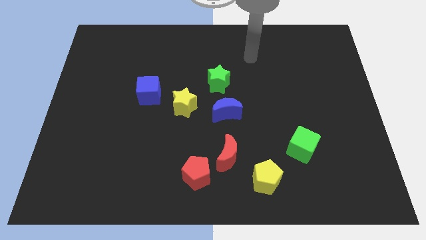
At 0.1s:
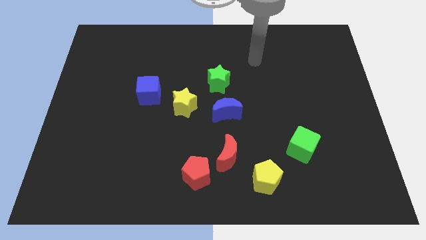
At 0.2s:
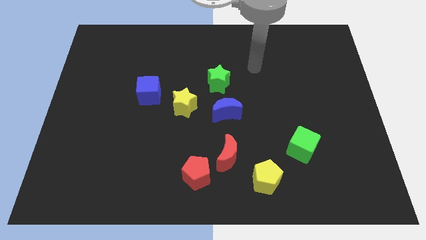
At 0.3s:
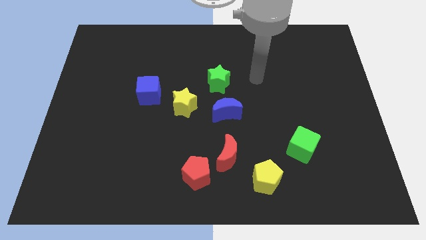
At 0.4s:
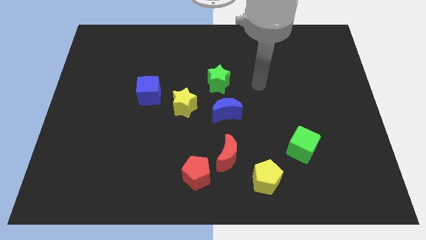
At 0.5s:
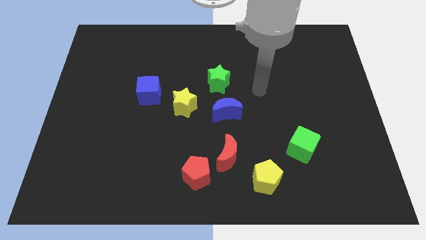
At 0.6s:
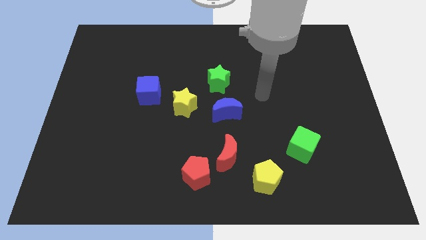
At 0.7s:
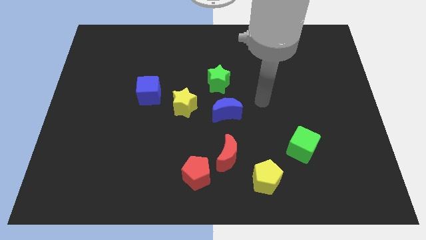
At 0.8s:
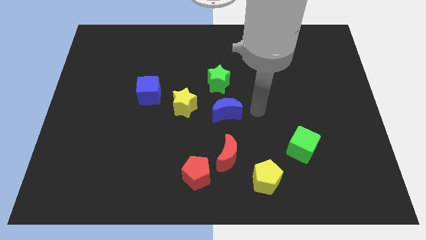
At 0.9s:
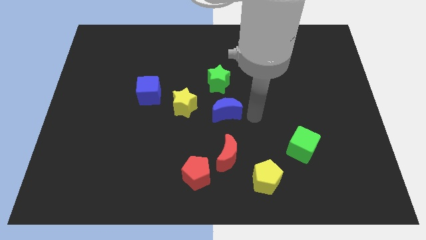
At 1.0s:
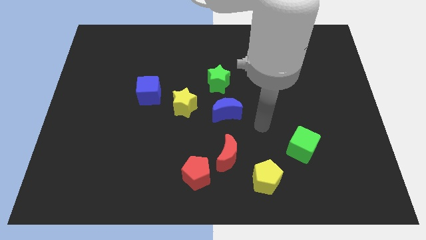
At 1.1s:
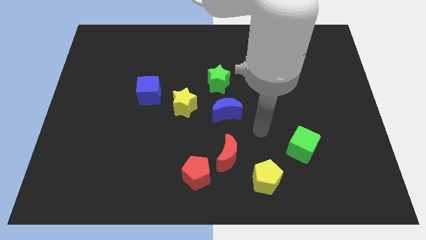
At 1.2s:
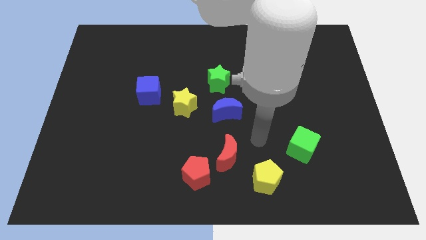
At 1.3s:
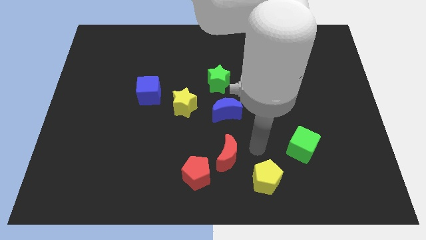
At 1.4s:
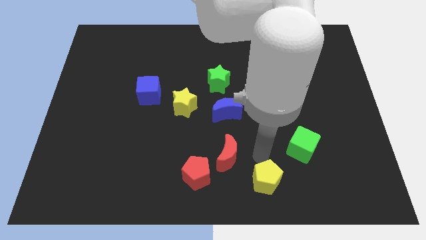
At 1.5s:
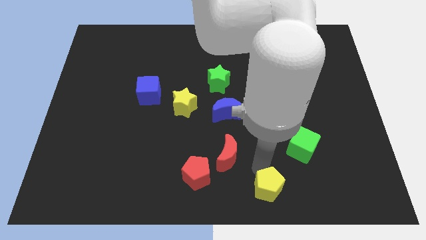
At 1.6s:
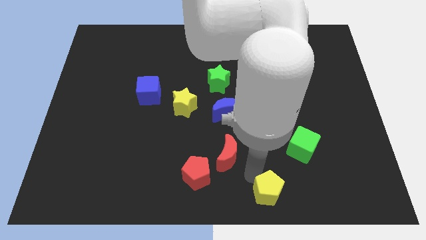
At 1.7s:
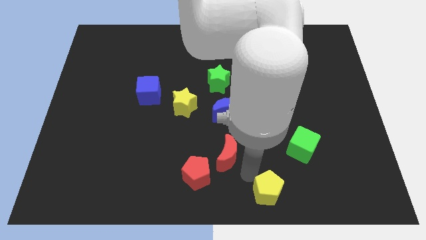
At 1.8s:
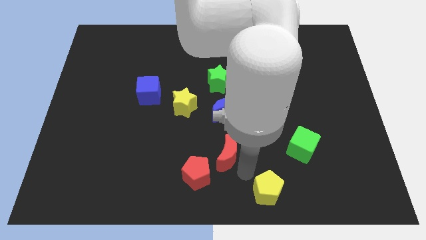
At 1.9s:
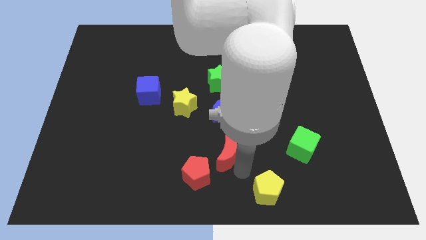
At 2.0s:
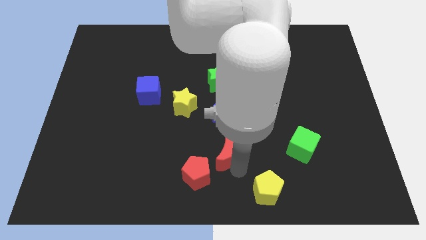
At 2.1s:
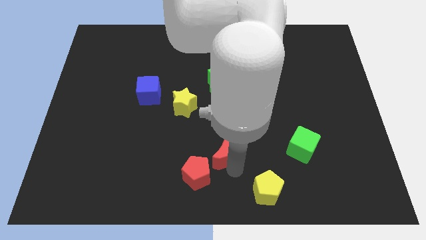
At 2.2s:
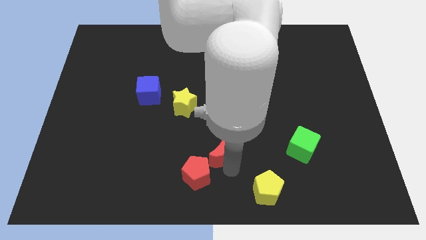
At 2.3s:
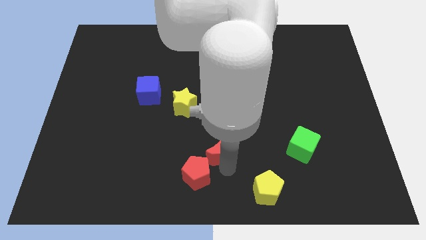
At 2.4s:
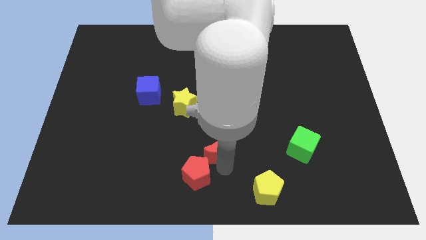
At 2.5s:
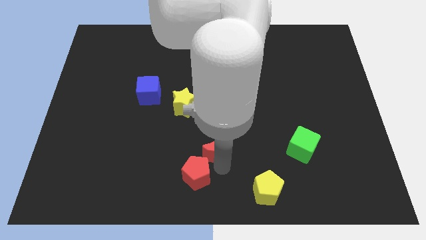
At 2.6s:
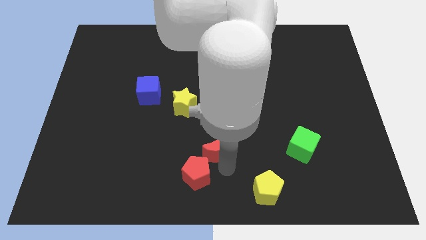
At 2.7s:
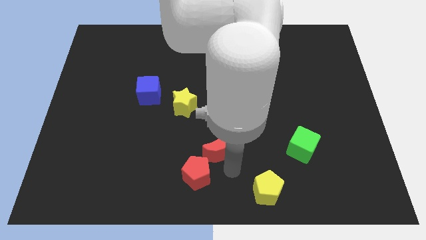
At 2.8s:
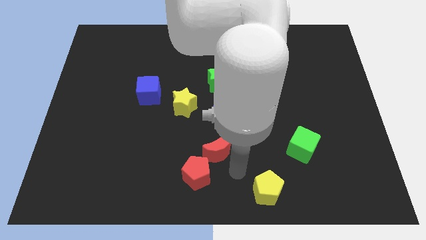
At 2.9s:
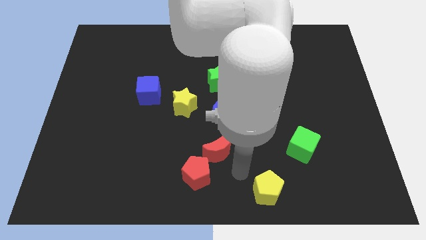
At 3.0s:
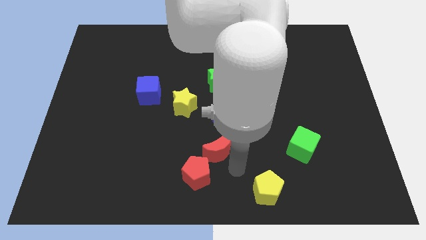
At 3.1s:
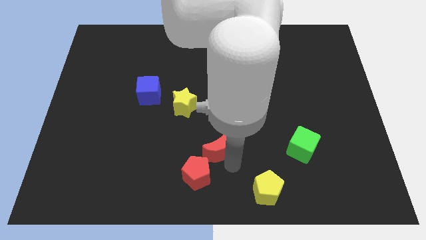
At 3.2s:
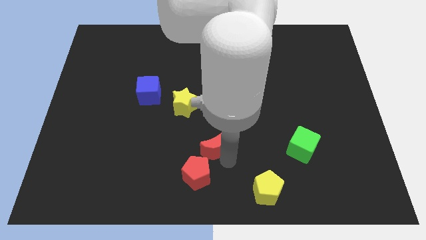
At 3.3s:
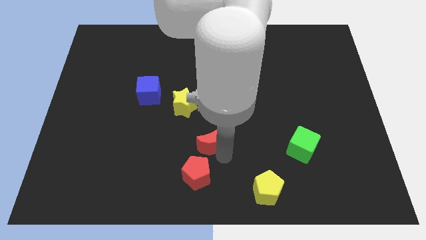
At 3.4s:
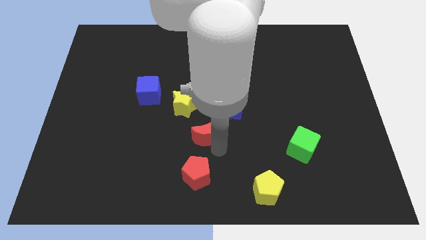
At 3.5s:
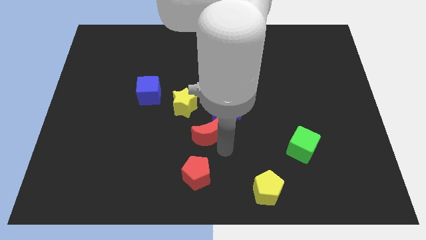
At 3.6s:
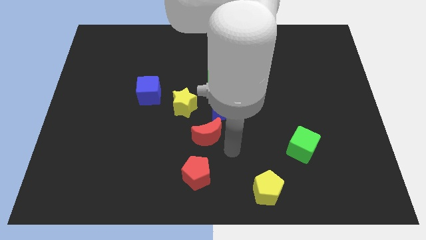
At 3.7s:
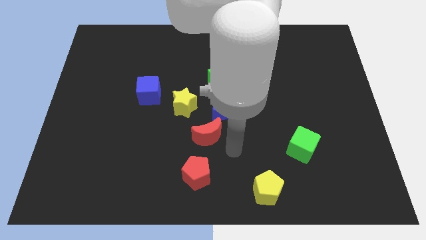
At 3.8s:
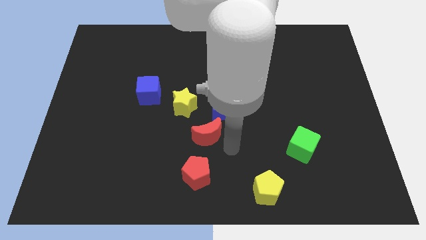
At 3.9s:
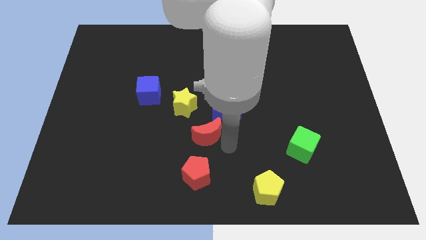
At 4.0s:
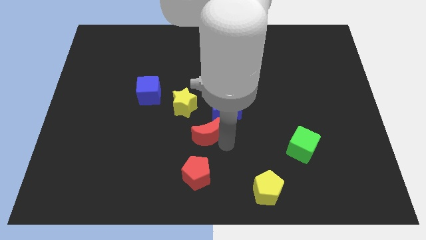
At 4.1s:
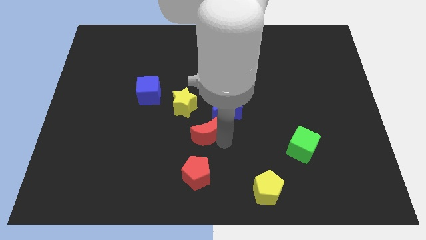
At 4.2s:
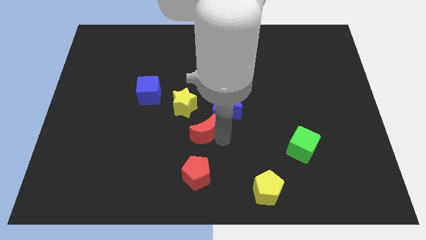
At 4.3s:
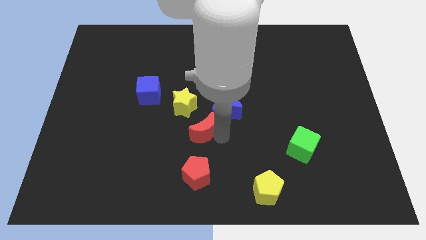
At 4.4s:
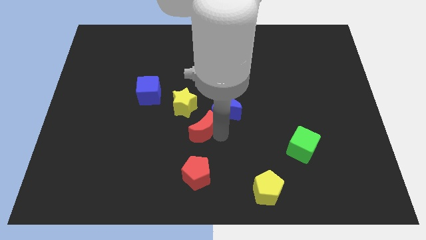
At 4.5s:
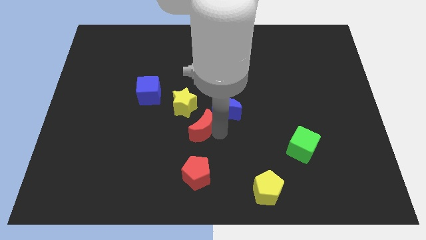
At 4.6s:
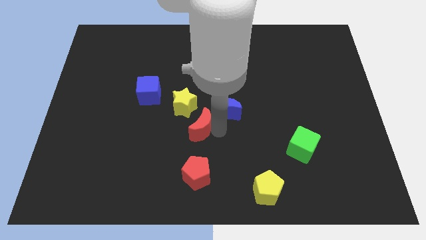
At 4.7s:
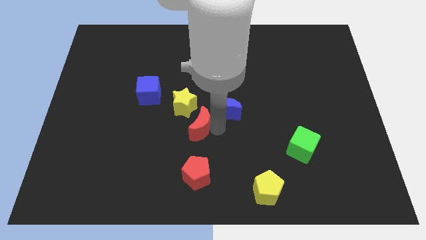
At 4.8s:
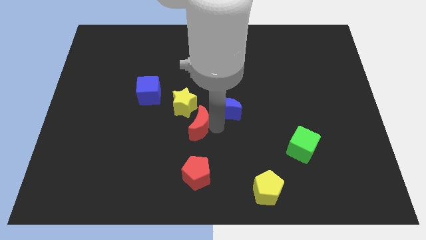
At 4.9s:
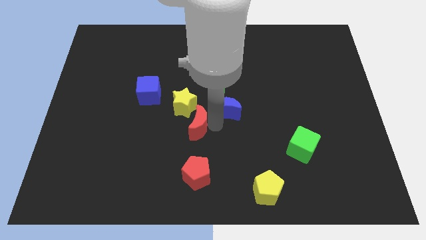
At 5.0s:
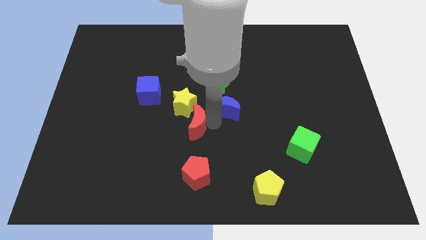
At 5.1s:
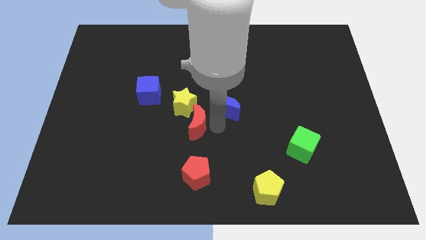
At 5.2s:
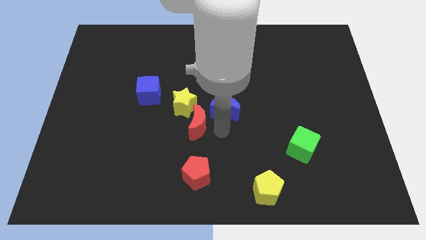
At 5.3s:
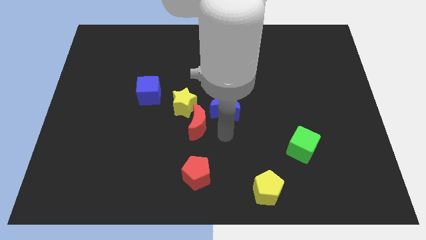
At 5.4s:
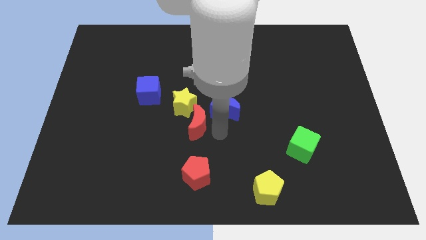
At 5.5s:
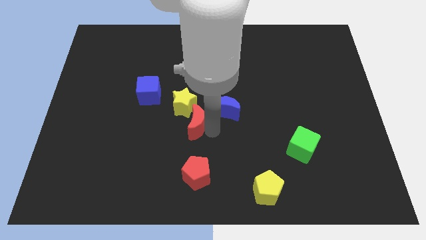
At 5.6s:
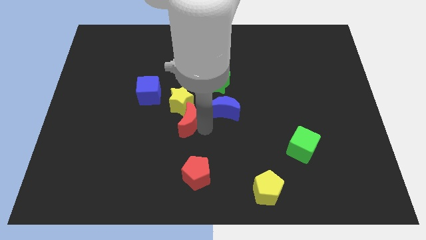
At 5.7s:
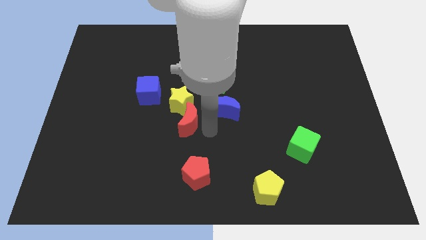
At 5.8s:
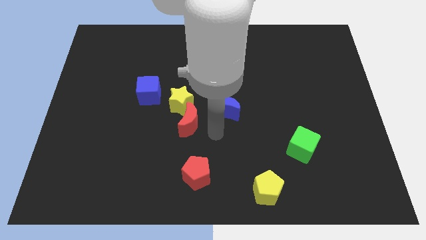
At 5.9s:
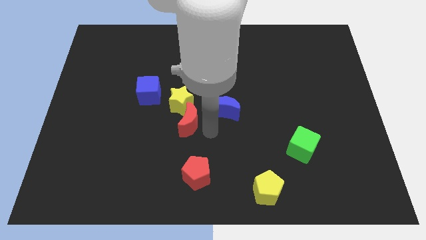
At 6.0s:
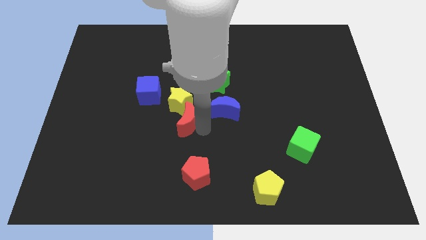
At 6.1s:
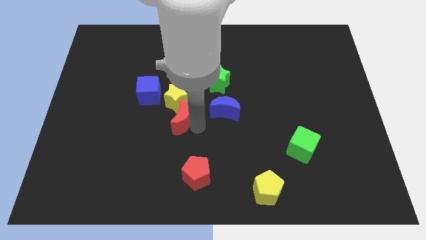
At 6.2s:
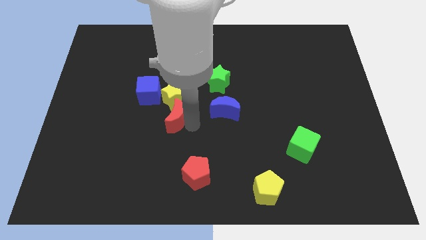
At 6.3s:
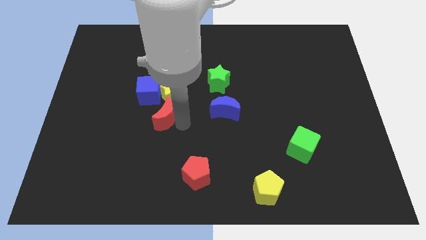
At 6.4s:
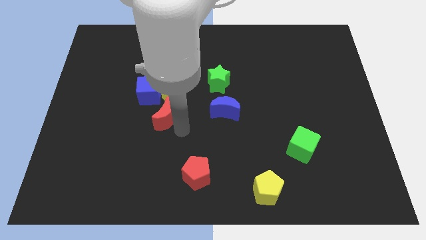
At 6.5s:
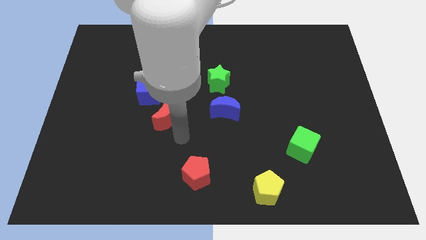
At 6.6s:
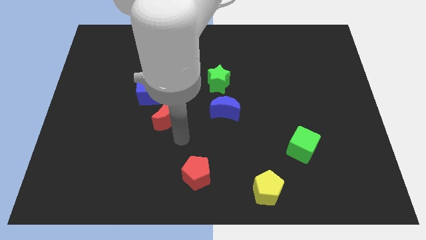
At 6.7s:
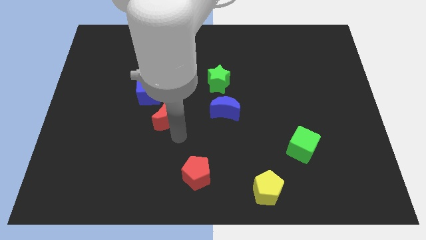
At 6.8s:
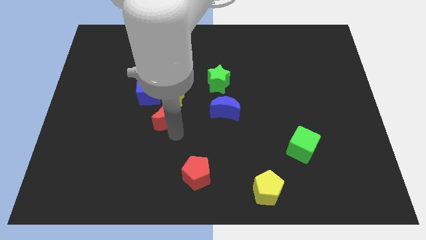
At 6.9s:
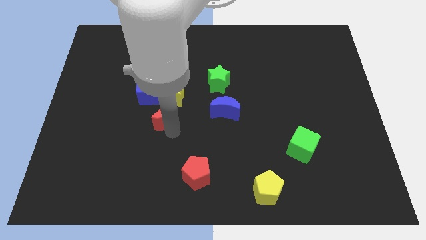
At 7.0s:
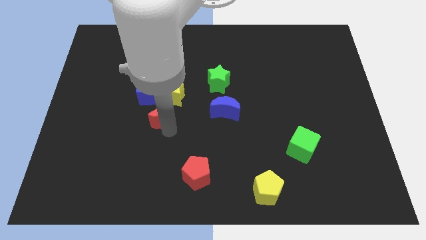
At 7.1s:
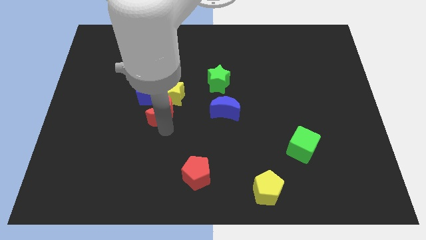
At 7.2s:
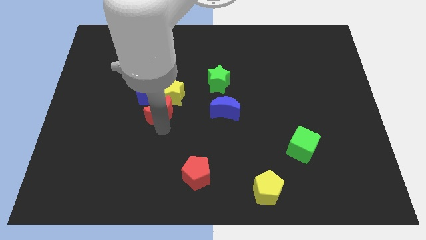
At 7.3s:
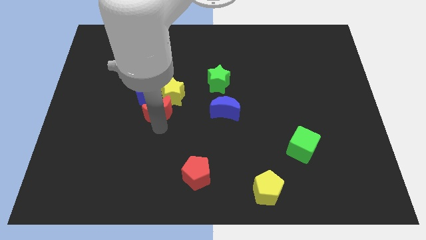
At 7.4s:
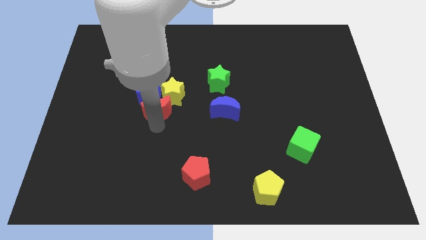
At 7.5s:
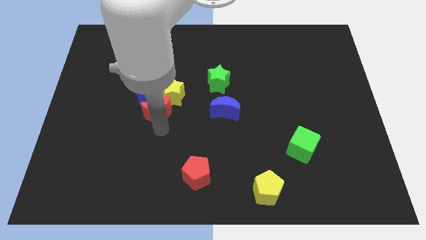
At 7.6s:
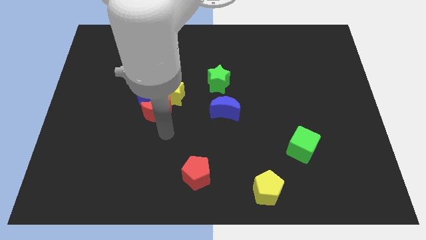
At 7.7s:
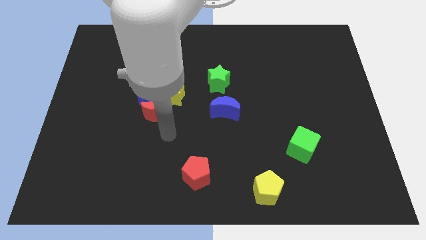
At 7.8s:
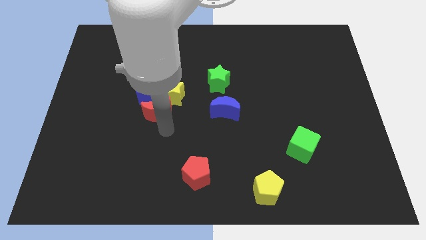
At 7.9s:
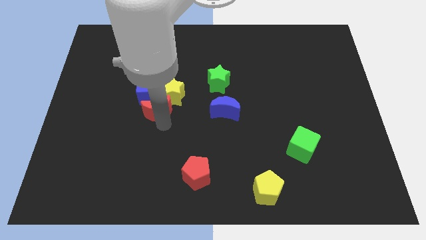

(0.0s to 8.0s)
slide the red moon next to the blue cube
